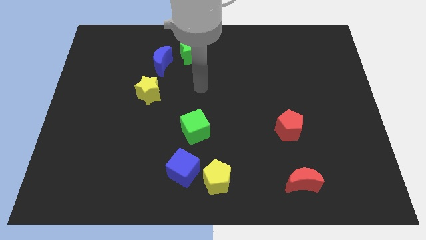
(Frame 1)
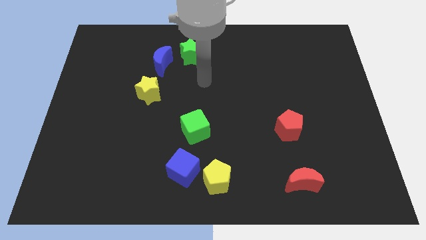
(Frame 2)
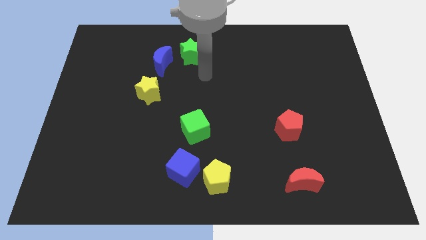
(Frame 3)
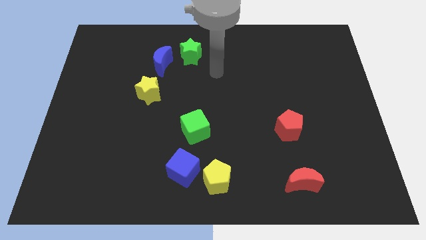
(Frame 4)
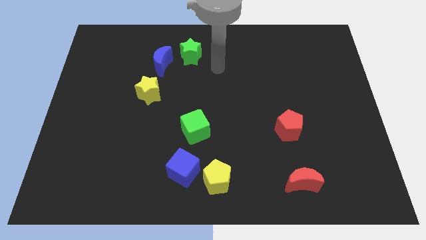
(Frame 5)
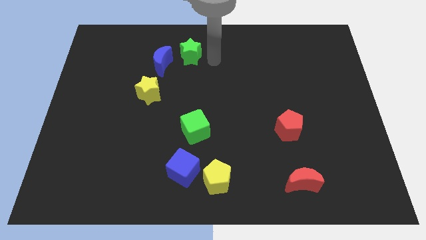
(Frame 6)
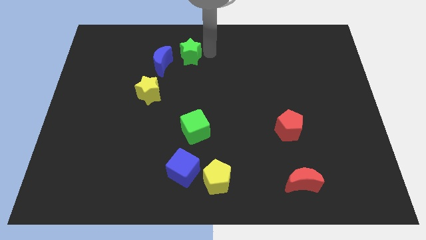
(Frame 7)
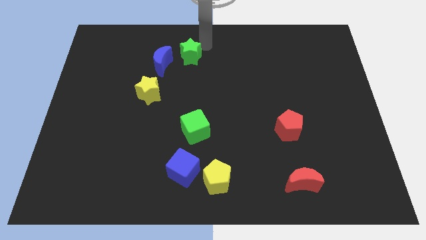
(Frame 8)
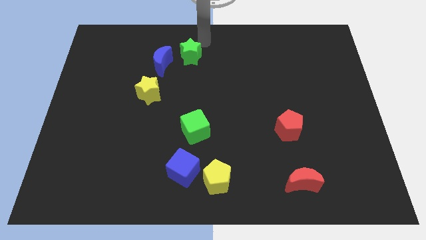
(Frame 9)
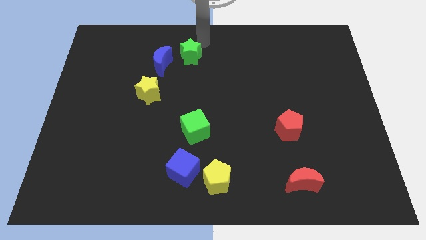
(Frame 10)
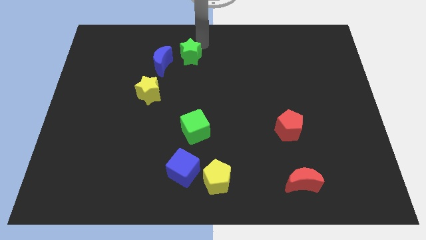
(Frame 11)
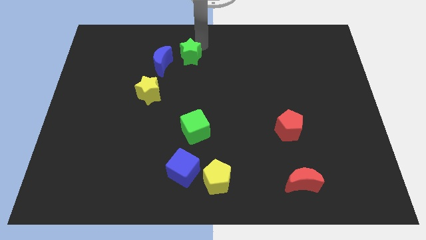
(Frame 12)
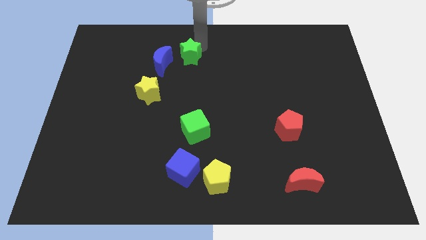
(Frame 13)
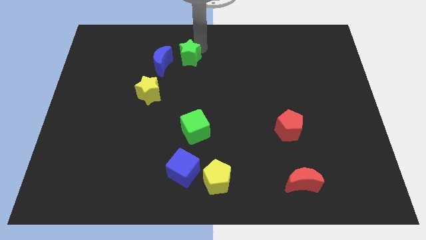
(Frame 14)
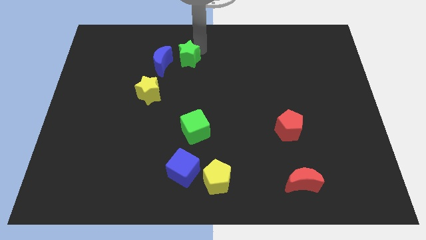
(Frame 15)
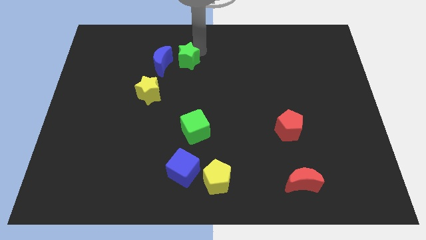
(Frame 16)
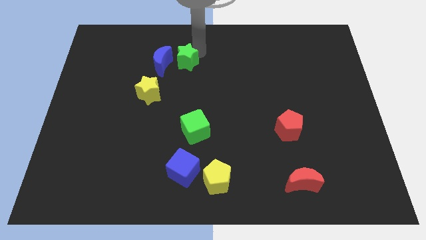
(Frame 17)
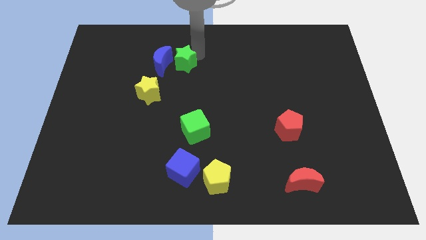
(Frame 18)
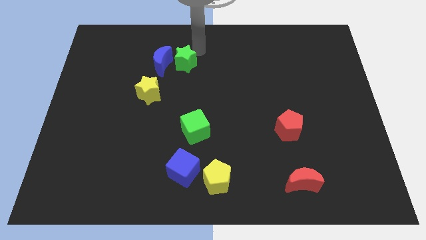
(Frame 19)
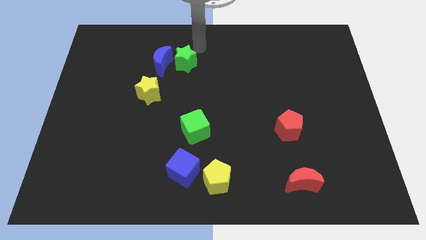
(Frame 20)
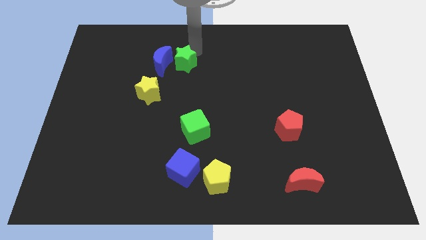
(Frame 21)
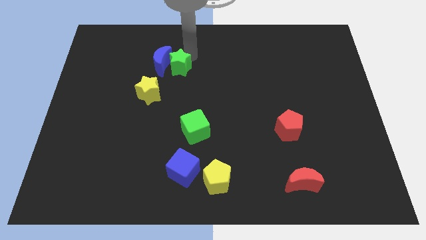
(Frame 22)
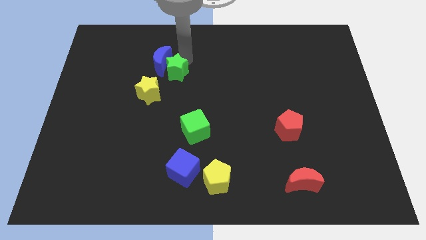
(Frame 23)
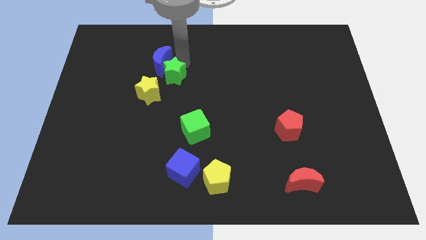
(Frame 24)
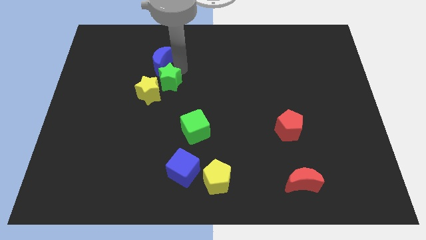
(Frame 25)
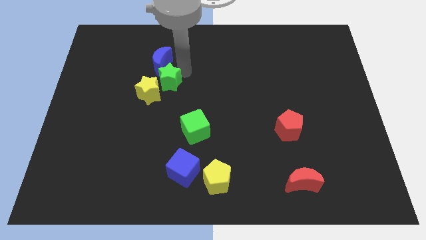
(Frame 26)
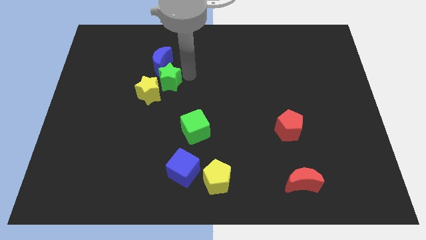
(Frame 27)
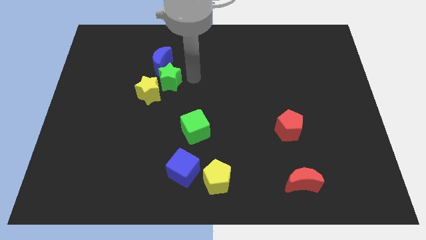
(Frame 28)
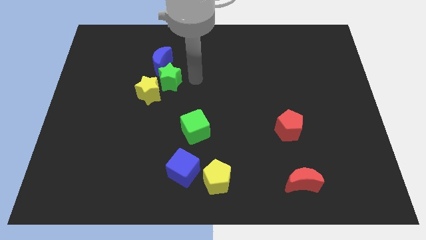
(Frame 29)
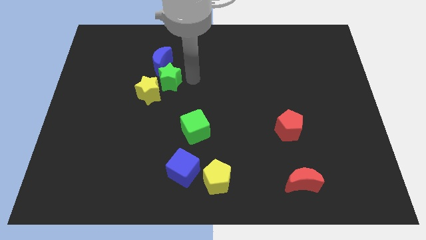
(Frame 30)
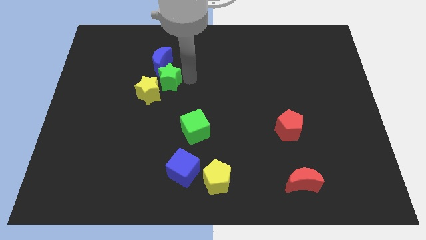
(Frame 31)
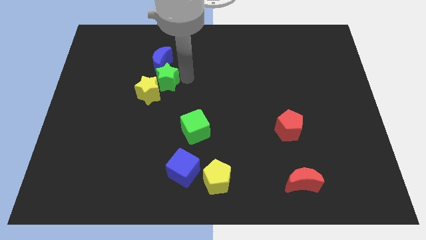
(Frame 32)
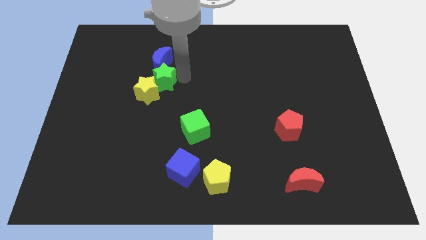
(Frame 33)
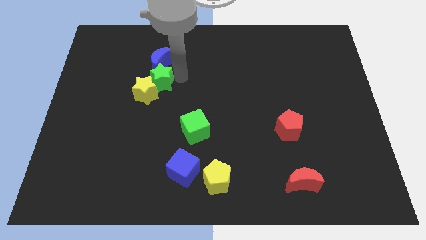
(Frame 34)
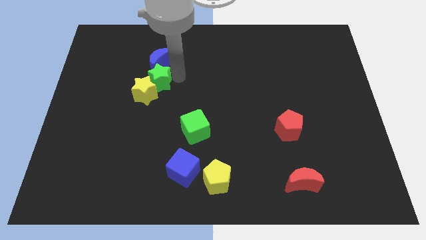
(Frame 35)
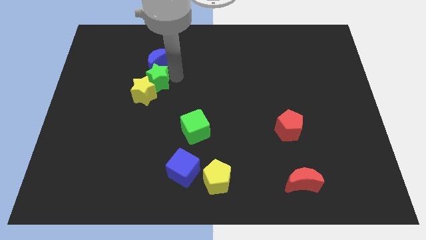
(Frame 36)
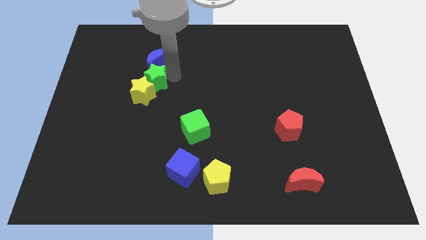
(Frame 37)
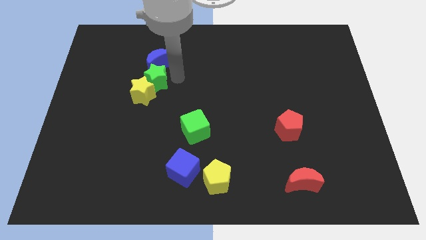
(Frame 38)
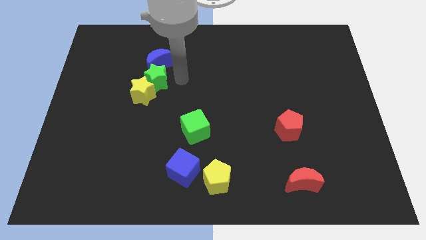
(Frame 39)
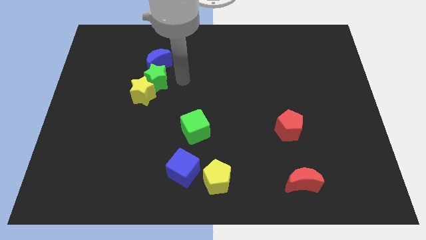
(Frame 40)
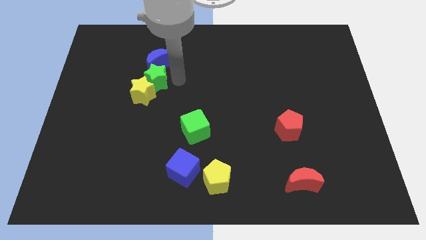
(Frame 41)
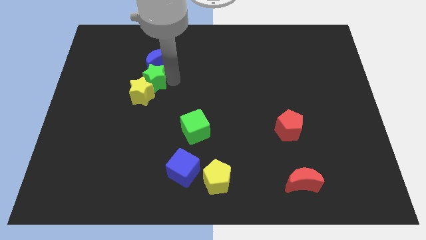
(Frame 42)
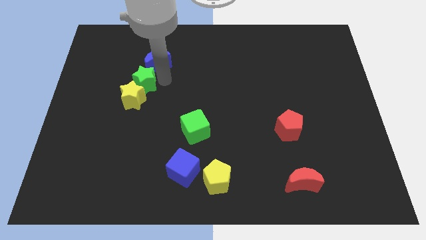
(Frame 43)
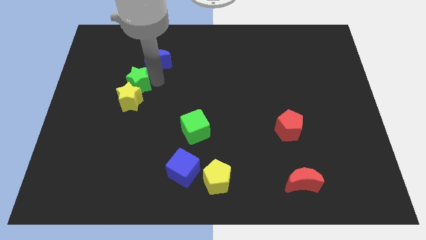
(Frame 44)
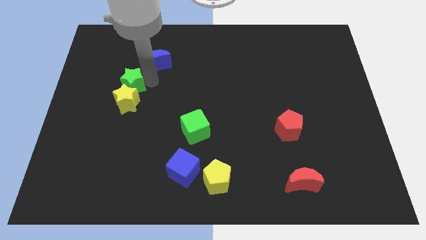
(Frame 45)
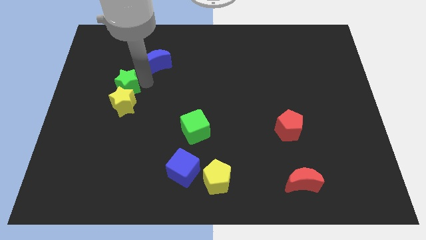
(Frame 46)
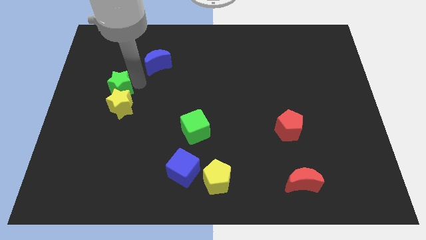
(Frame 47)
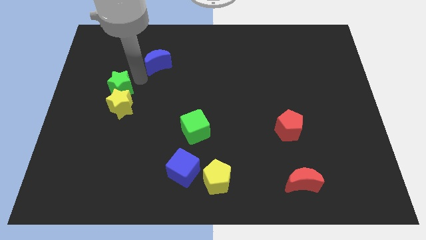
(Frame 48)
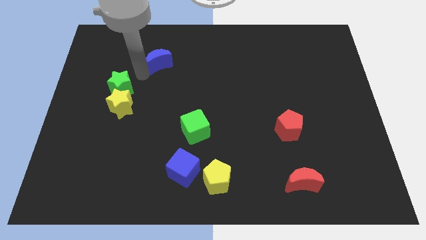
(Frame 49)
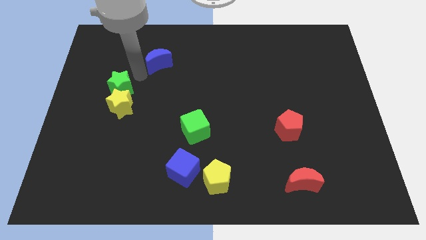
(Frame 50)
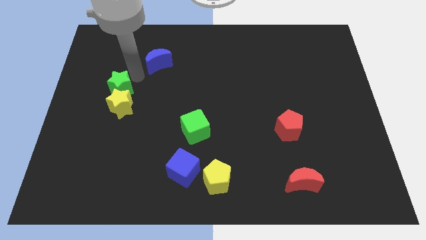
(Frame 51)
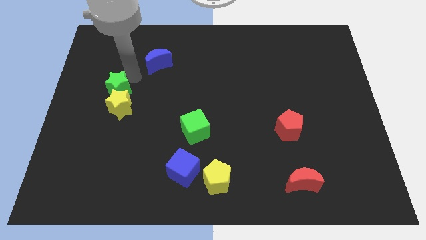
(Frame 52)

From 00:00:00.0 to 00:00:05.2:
slide the green star down and then left

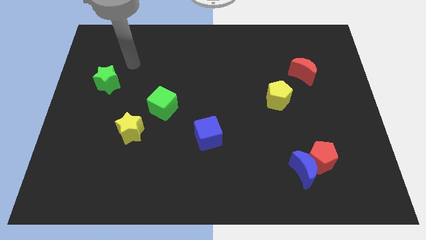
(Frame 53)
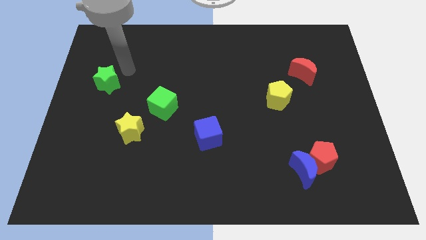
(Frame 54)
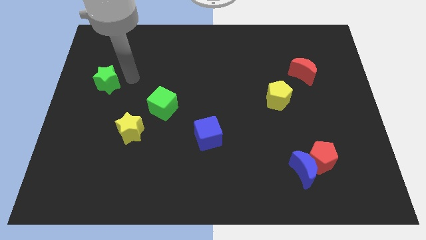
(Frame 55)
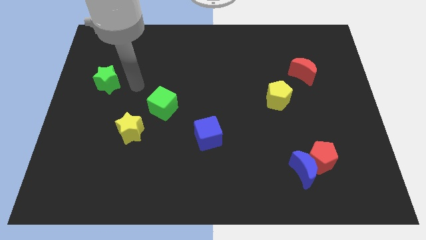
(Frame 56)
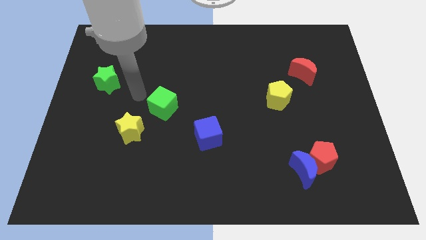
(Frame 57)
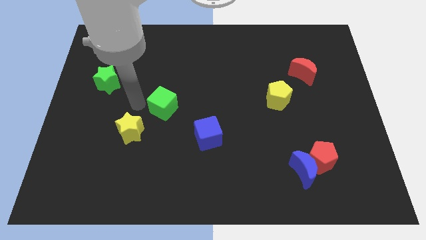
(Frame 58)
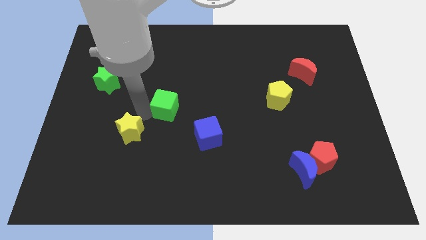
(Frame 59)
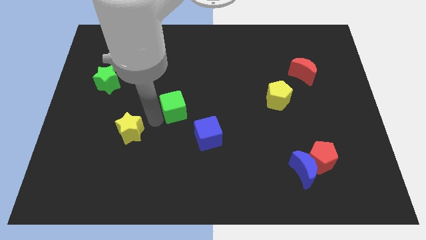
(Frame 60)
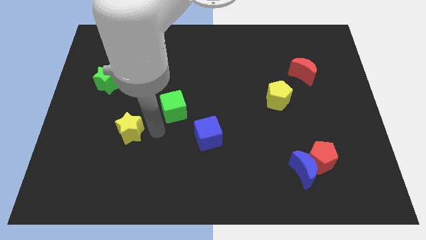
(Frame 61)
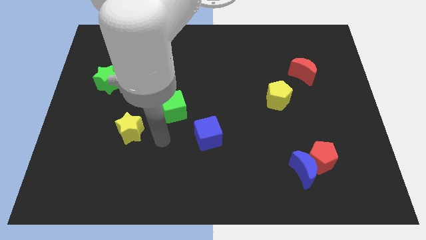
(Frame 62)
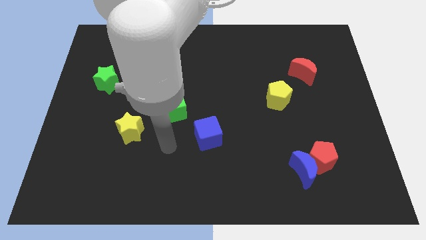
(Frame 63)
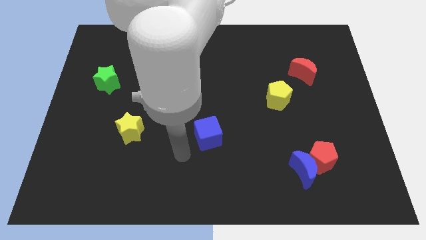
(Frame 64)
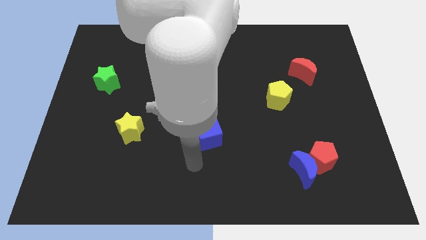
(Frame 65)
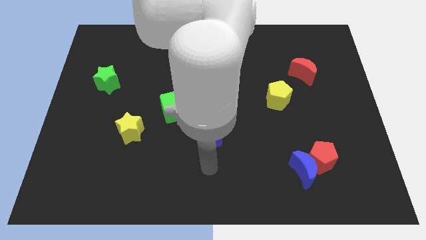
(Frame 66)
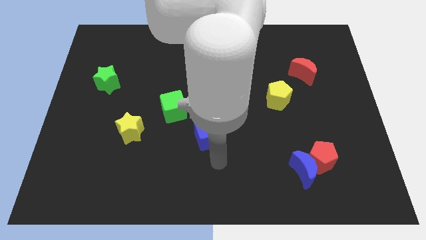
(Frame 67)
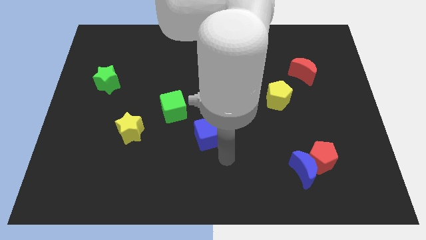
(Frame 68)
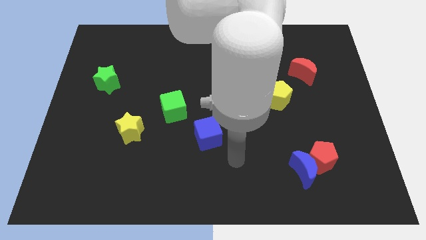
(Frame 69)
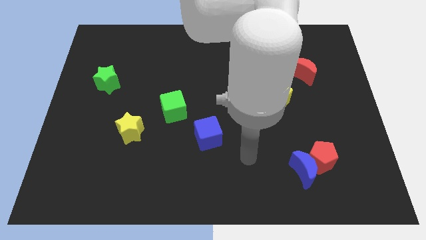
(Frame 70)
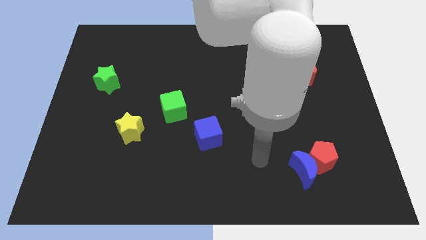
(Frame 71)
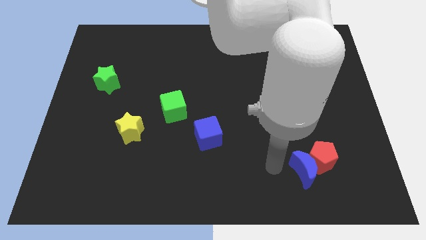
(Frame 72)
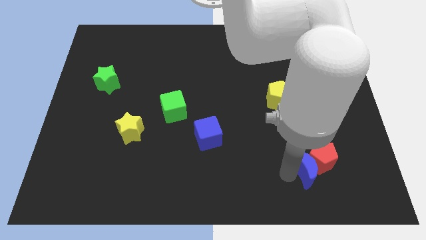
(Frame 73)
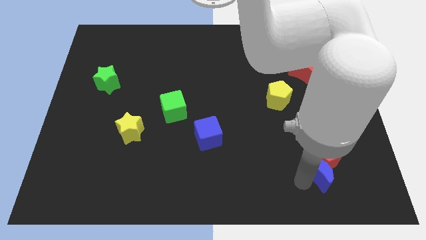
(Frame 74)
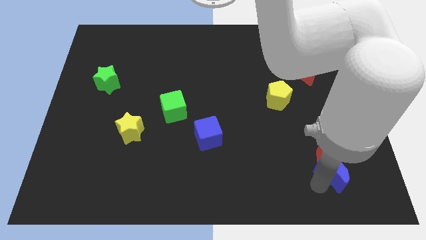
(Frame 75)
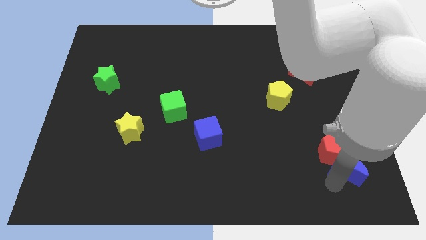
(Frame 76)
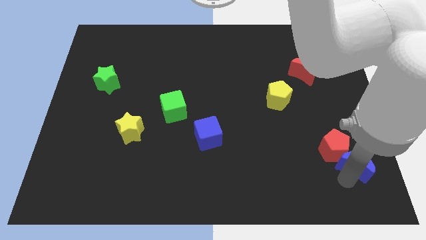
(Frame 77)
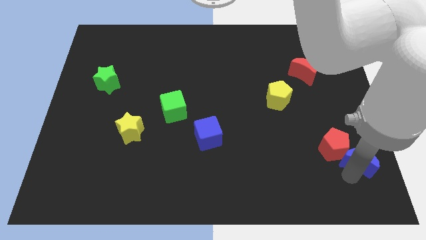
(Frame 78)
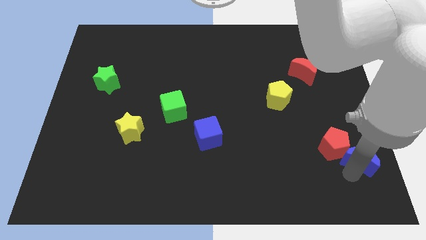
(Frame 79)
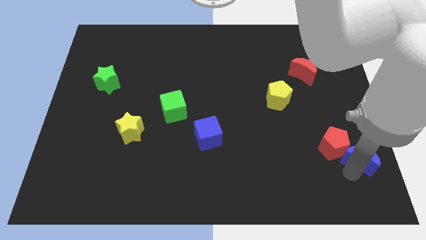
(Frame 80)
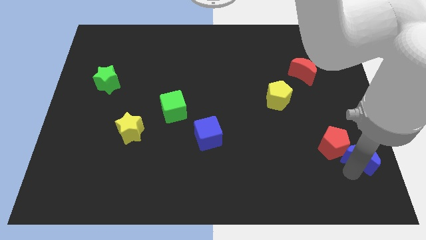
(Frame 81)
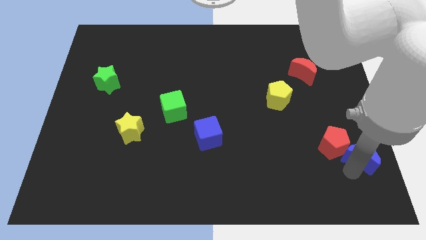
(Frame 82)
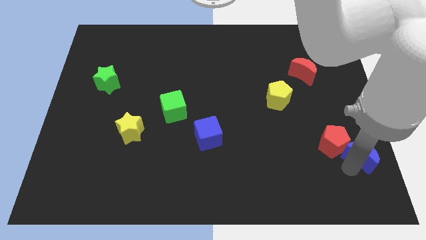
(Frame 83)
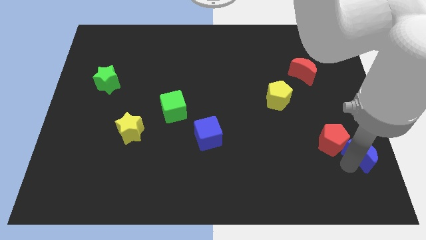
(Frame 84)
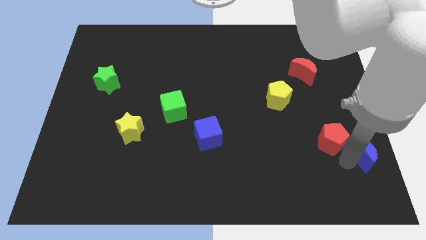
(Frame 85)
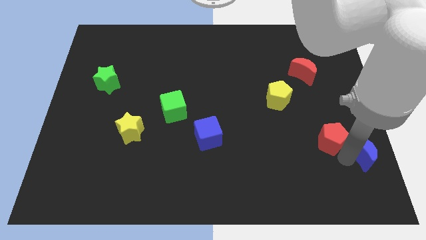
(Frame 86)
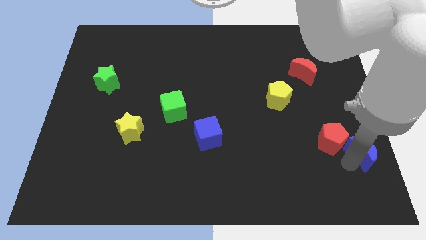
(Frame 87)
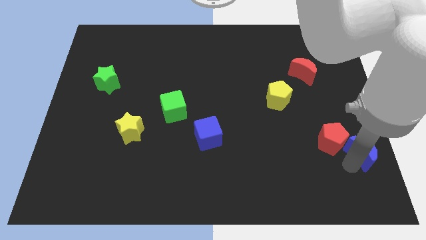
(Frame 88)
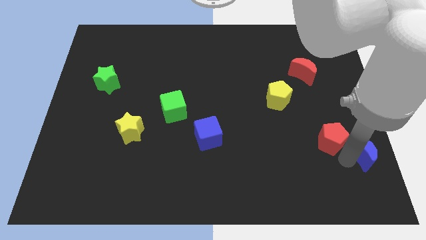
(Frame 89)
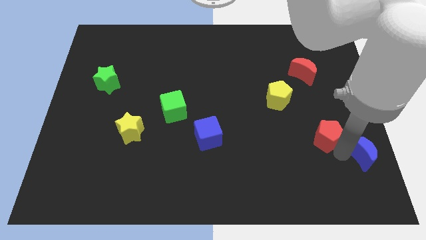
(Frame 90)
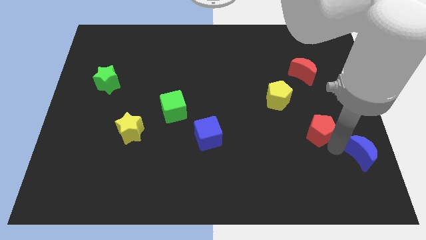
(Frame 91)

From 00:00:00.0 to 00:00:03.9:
slightly slide the red pentagon up
